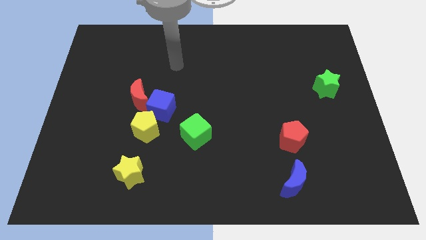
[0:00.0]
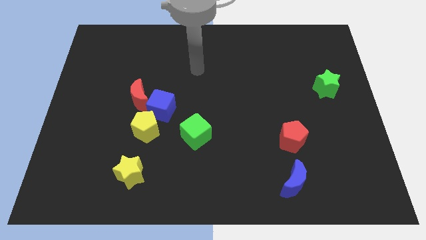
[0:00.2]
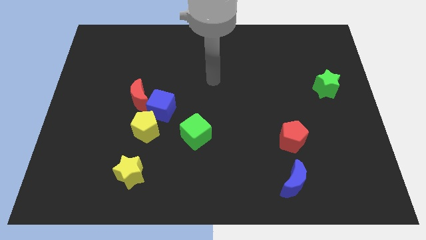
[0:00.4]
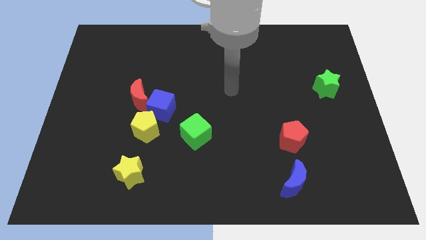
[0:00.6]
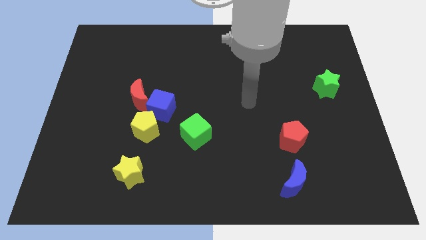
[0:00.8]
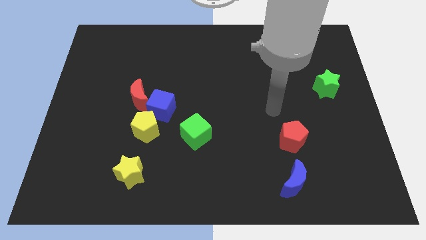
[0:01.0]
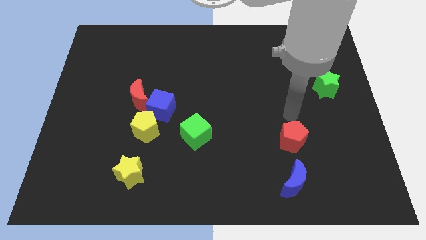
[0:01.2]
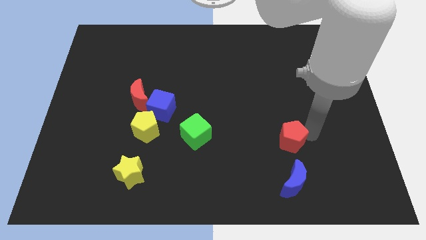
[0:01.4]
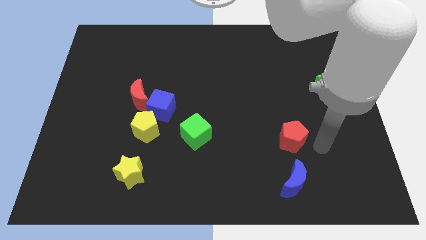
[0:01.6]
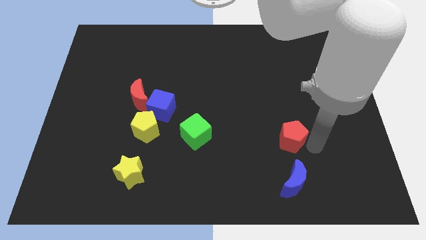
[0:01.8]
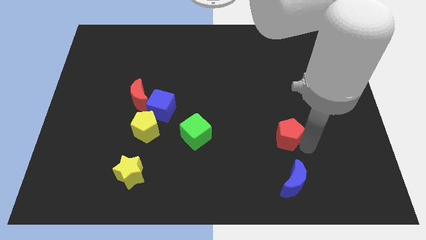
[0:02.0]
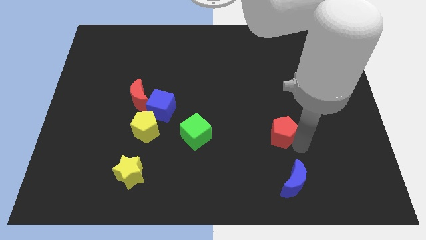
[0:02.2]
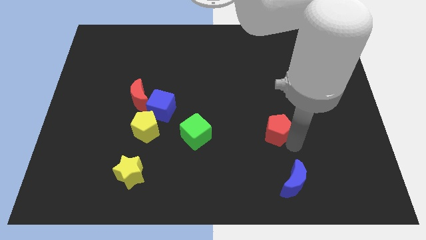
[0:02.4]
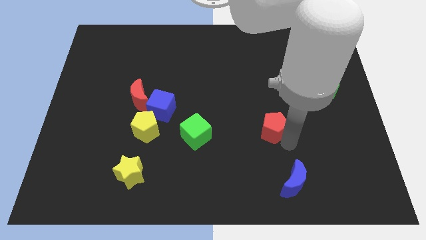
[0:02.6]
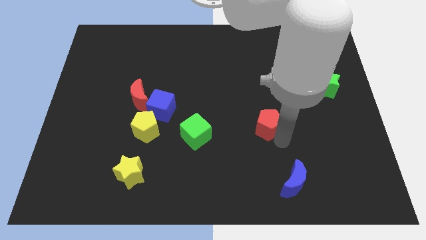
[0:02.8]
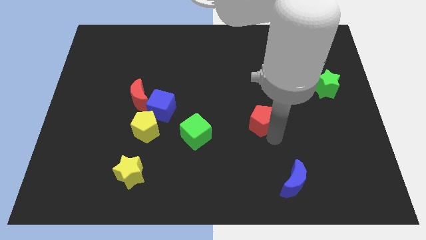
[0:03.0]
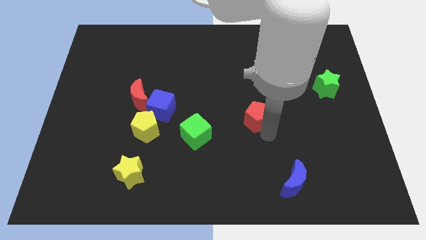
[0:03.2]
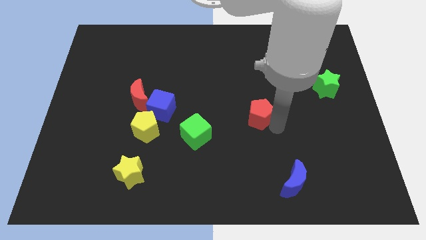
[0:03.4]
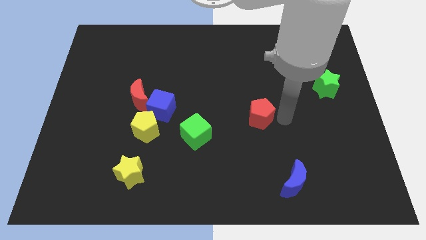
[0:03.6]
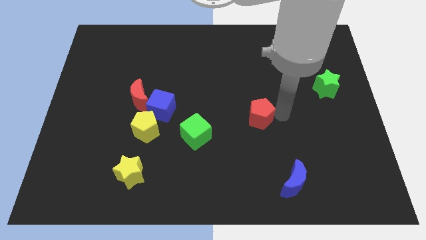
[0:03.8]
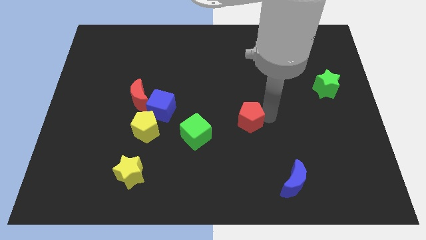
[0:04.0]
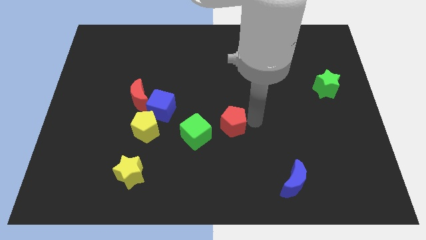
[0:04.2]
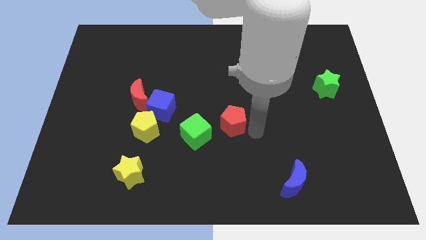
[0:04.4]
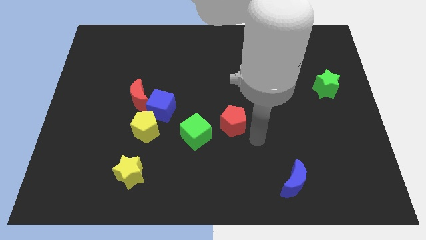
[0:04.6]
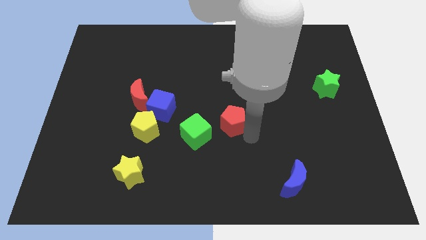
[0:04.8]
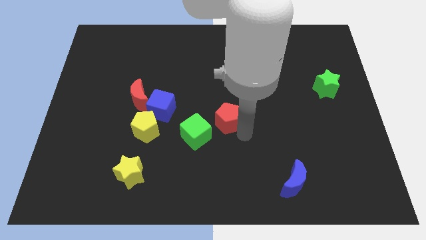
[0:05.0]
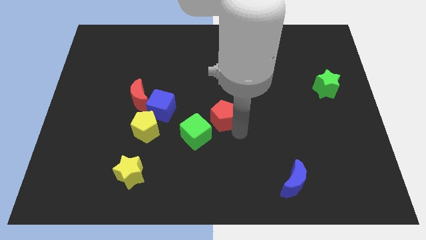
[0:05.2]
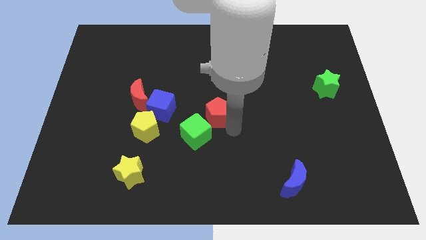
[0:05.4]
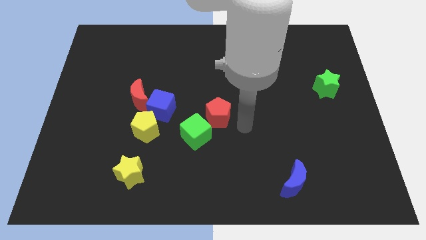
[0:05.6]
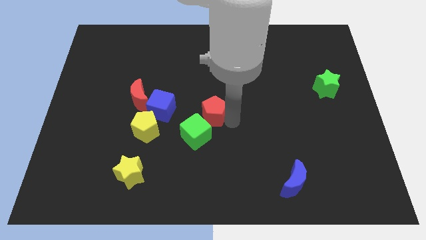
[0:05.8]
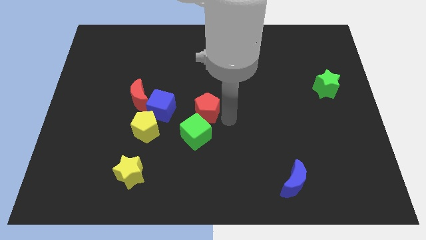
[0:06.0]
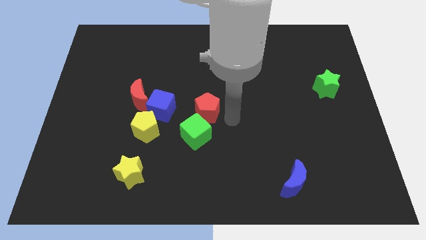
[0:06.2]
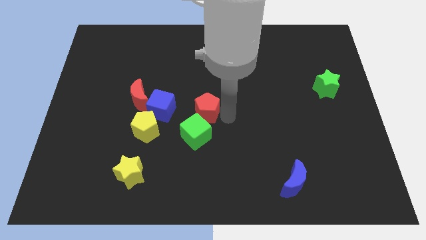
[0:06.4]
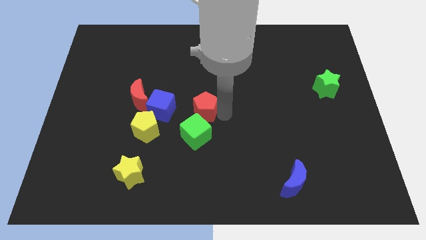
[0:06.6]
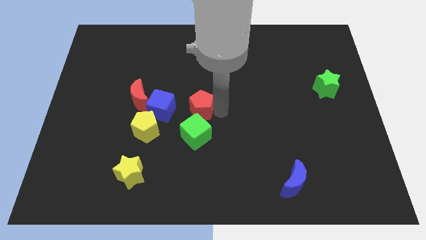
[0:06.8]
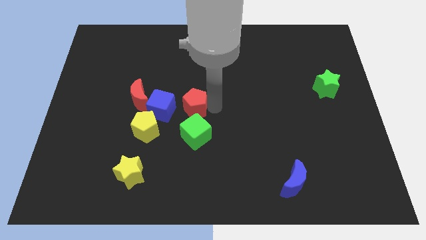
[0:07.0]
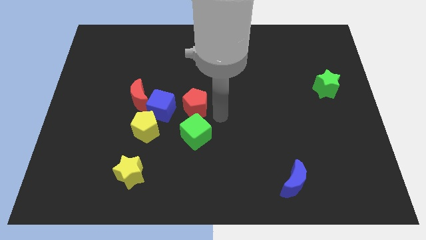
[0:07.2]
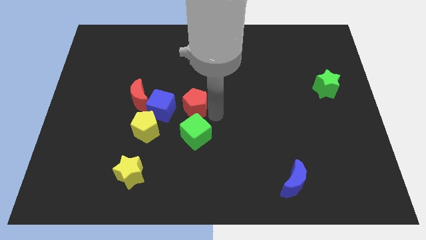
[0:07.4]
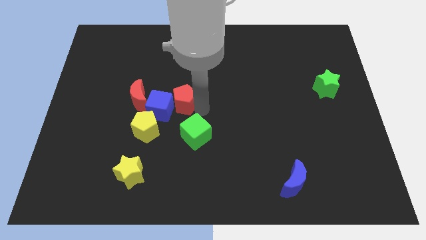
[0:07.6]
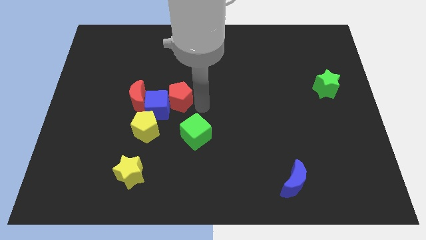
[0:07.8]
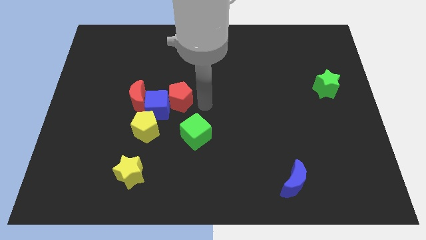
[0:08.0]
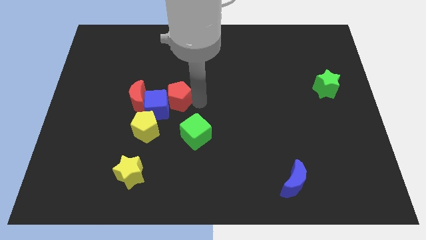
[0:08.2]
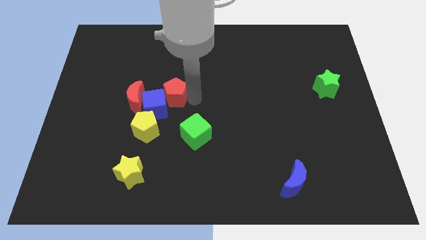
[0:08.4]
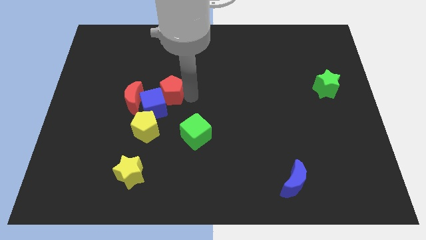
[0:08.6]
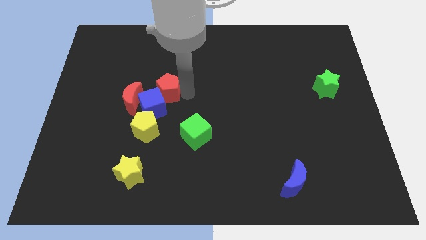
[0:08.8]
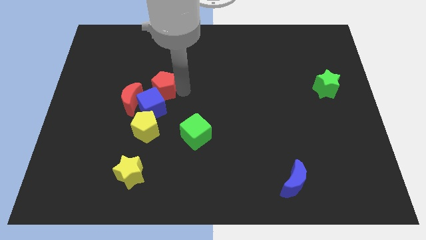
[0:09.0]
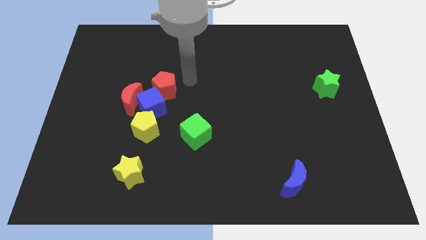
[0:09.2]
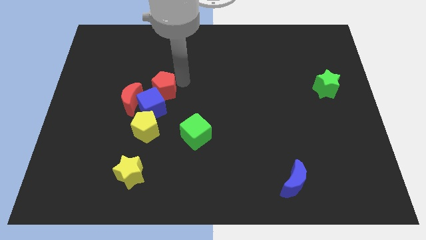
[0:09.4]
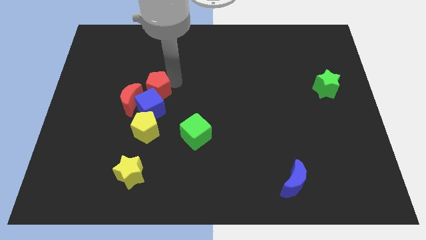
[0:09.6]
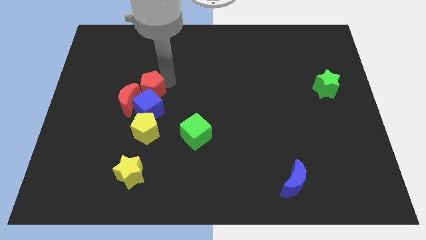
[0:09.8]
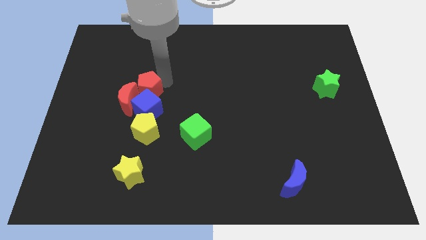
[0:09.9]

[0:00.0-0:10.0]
put the red pentagon to the red moon

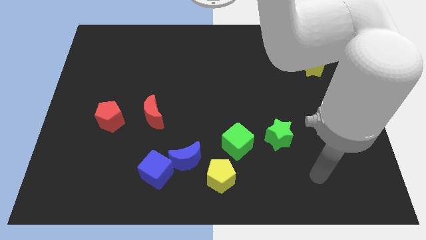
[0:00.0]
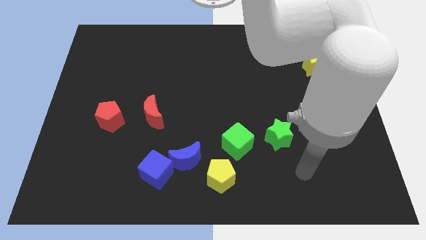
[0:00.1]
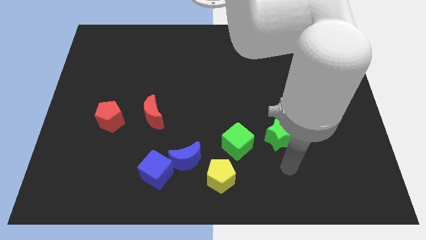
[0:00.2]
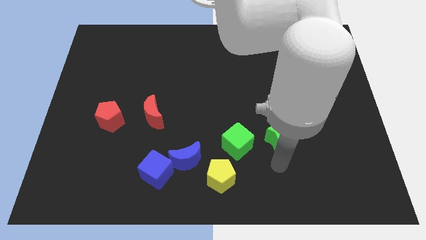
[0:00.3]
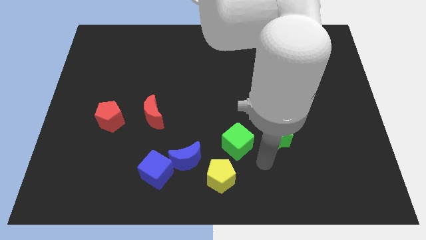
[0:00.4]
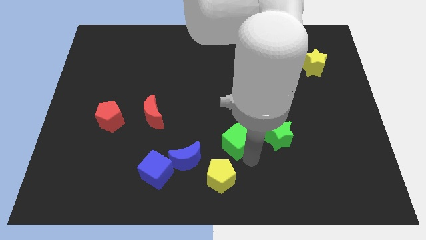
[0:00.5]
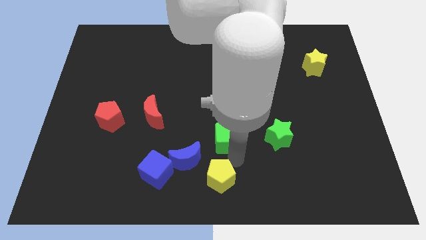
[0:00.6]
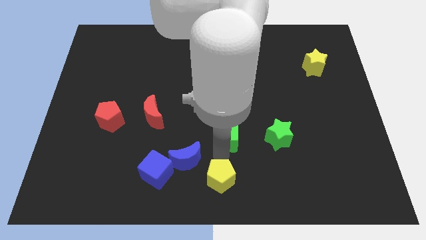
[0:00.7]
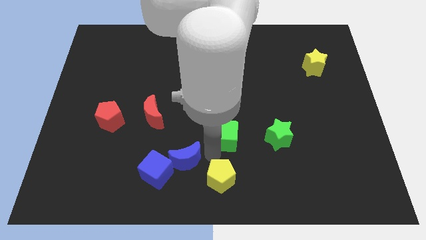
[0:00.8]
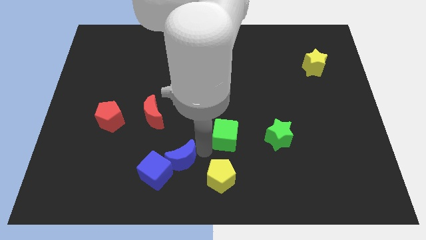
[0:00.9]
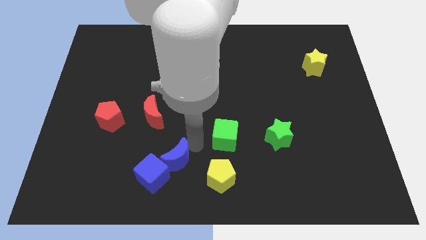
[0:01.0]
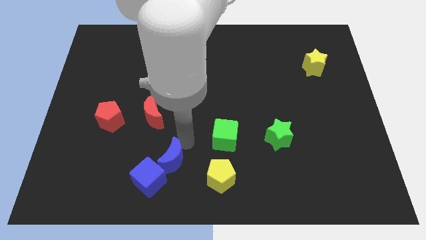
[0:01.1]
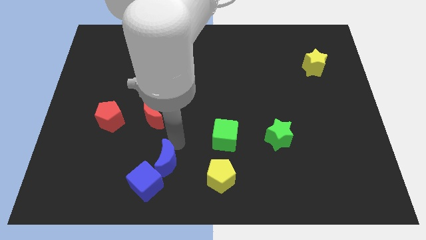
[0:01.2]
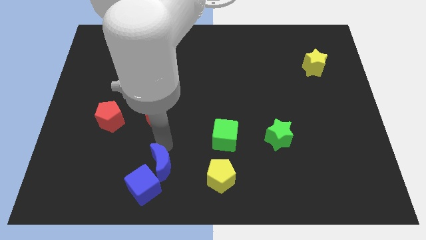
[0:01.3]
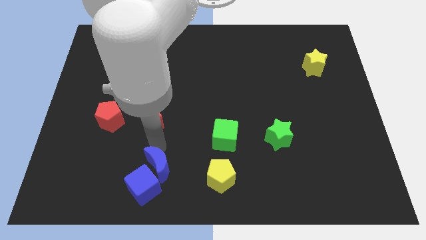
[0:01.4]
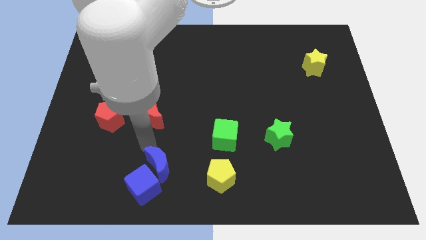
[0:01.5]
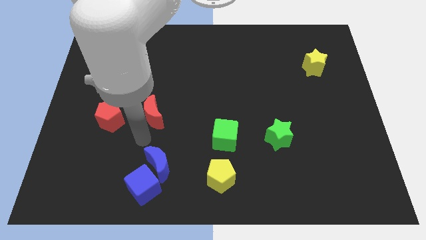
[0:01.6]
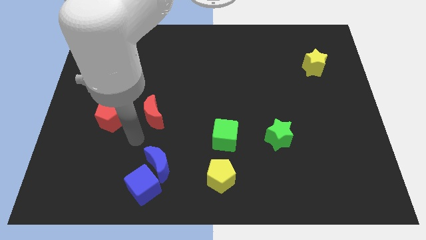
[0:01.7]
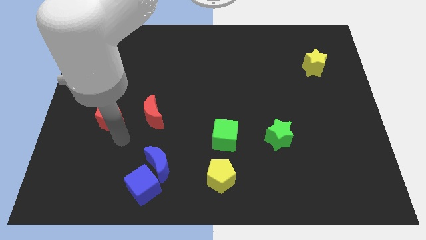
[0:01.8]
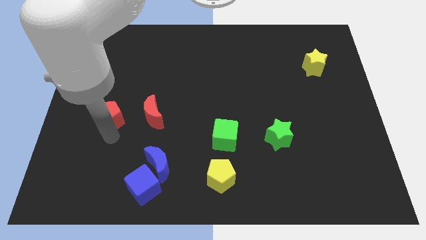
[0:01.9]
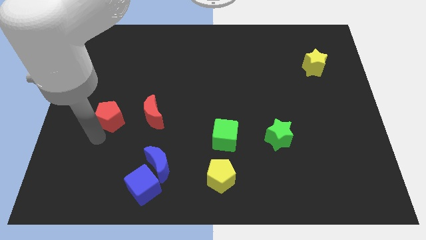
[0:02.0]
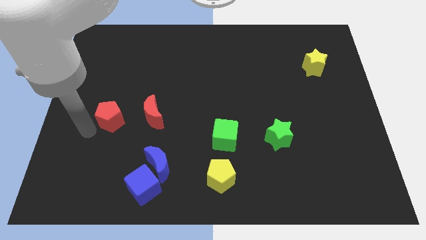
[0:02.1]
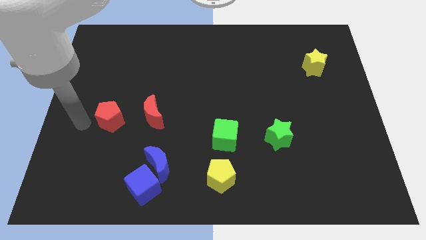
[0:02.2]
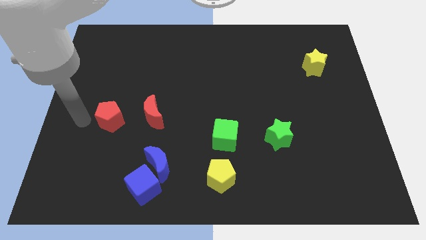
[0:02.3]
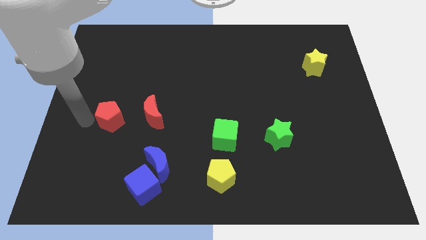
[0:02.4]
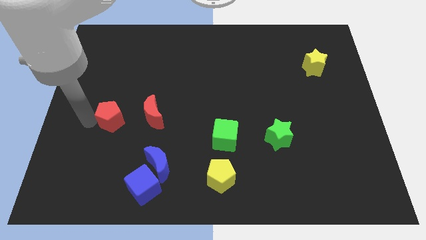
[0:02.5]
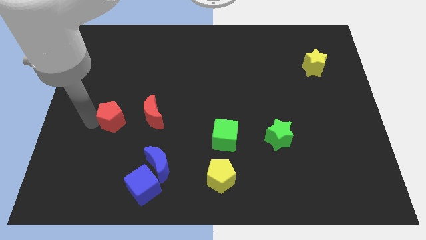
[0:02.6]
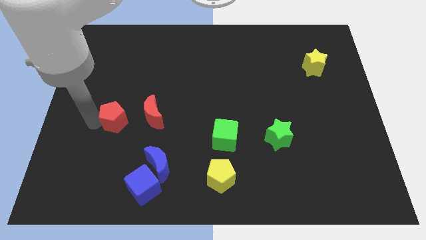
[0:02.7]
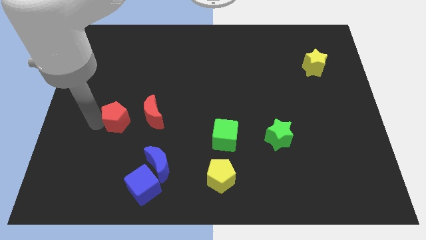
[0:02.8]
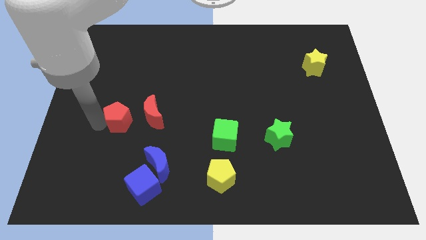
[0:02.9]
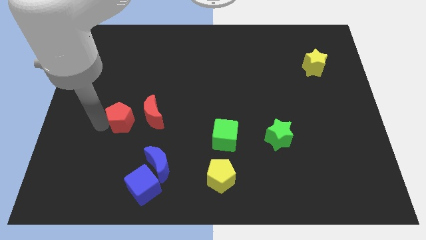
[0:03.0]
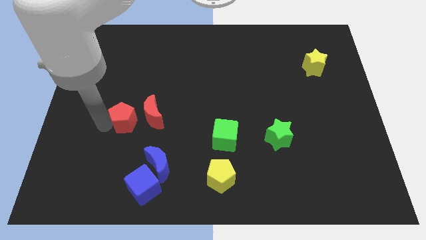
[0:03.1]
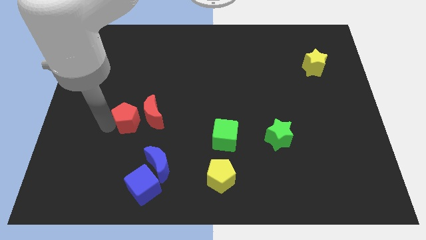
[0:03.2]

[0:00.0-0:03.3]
move the red pentagon to the red moon
